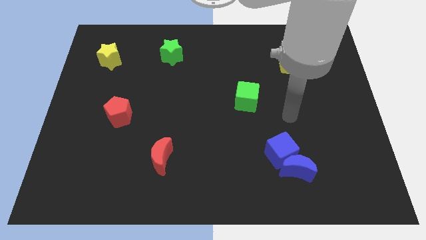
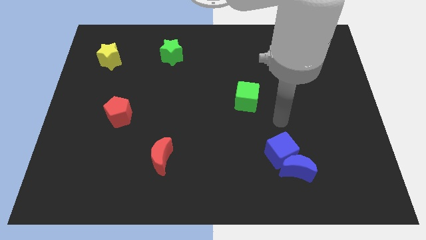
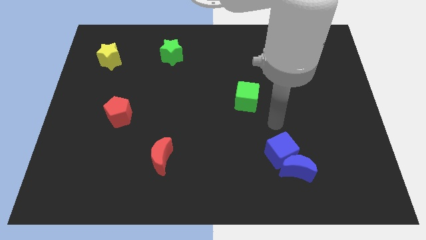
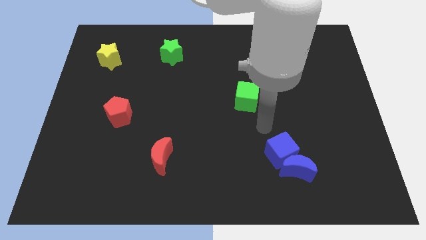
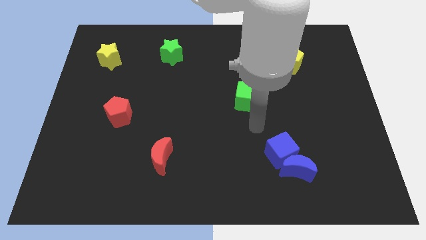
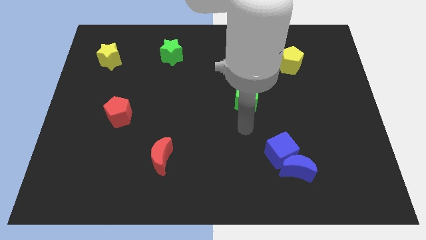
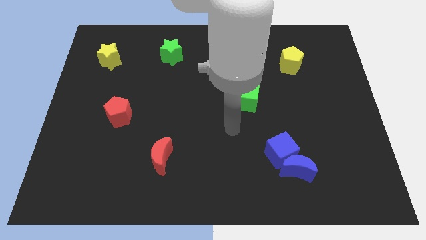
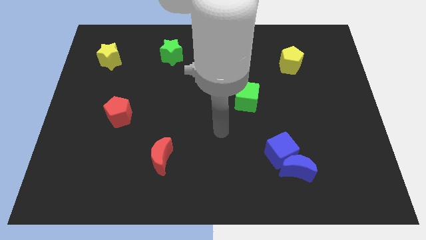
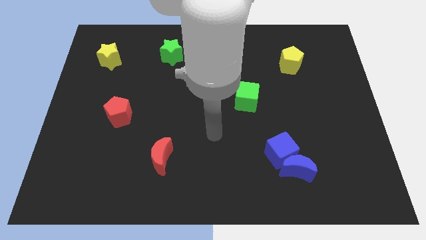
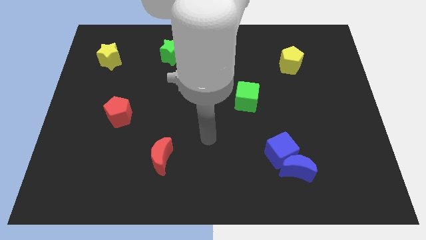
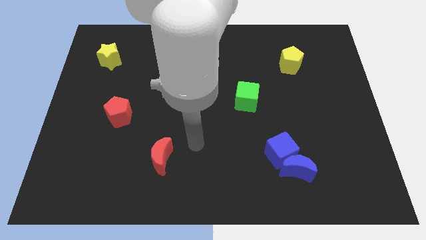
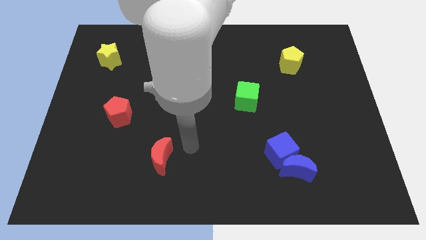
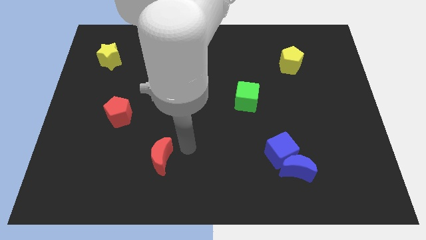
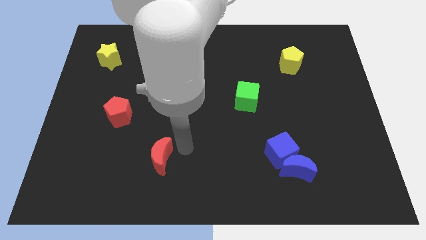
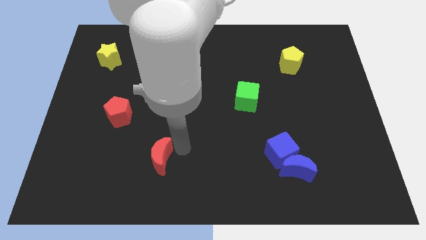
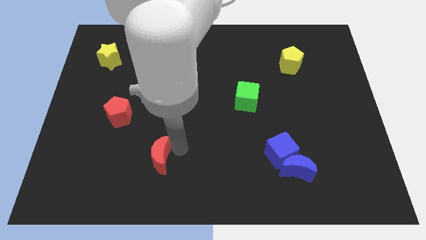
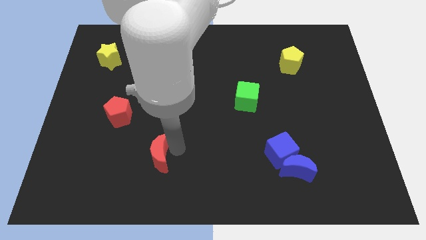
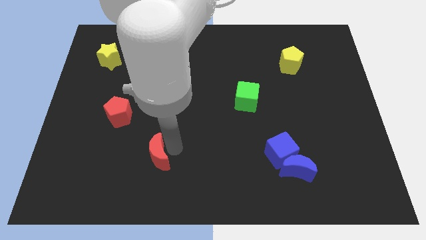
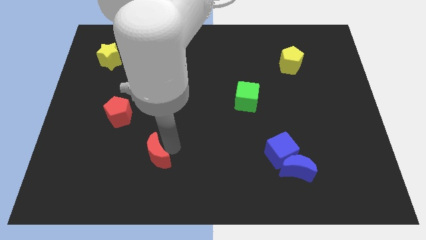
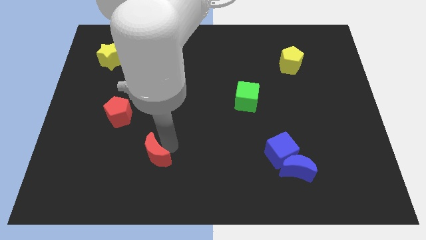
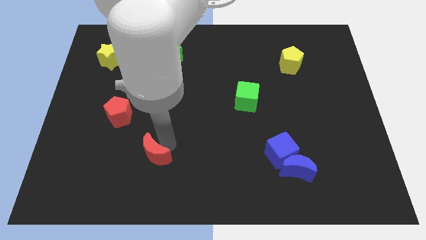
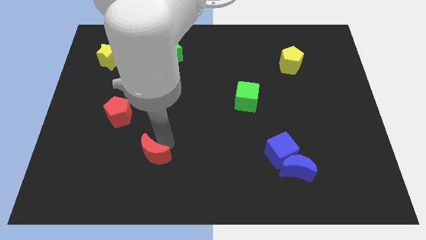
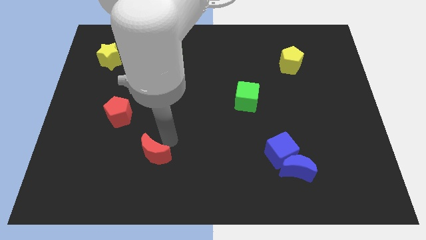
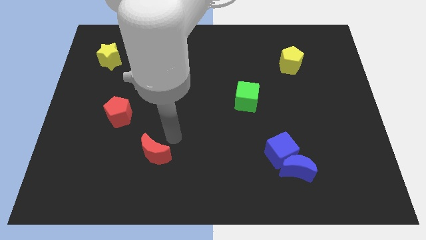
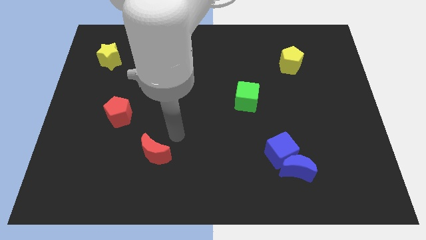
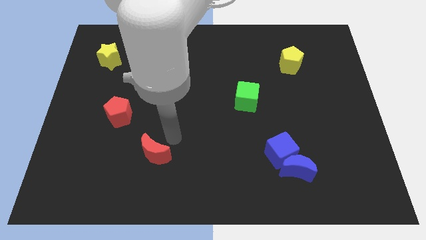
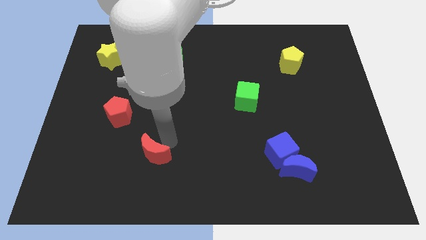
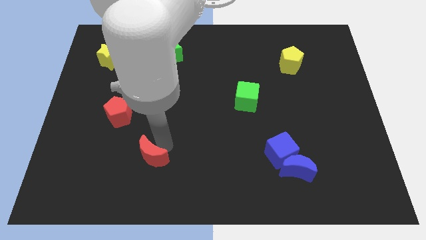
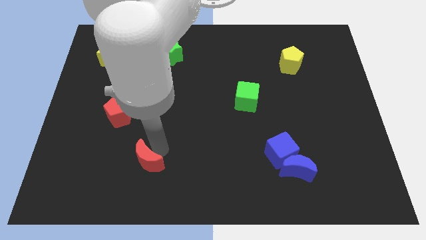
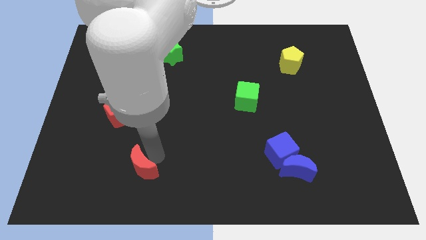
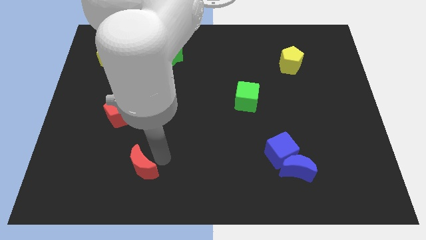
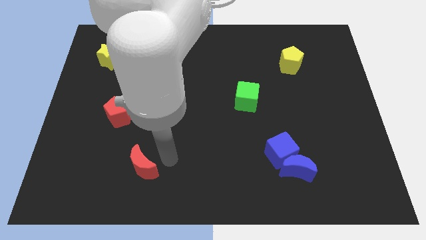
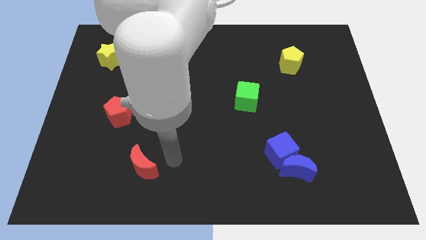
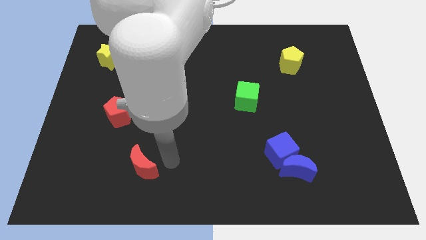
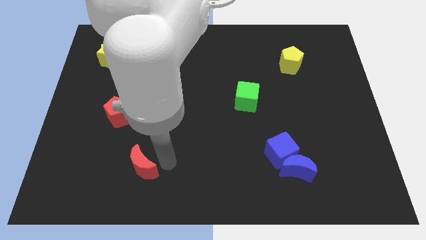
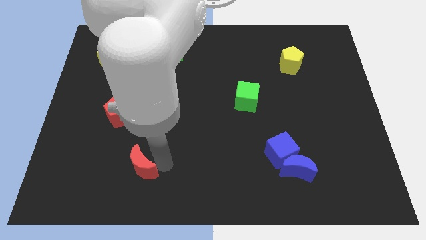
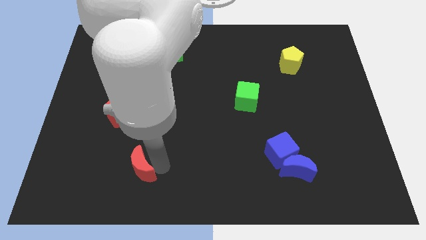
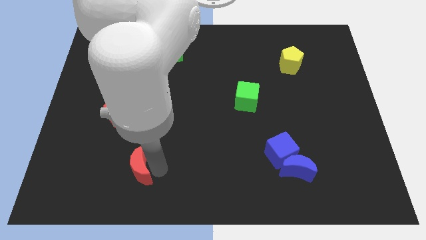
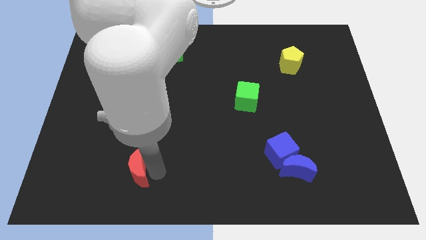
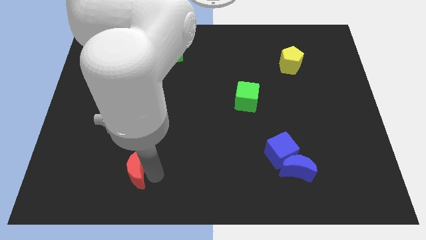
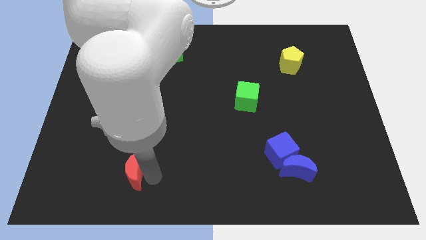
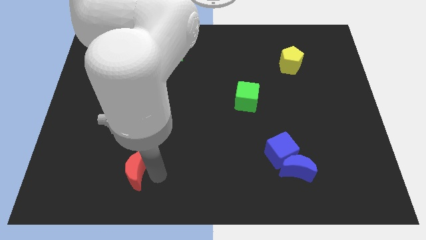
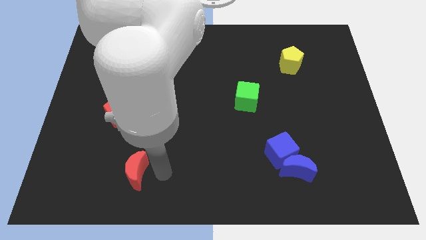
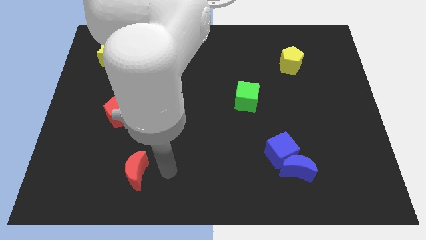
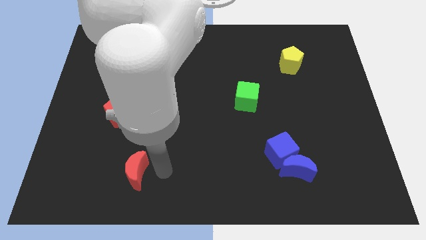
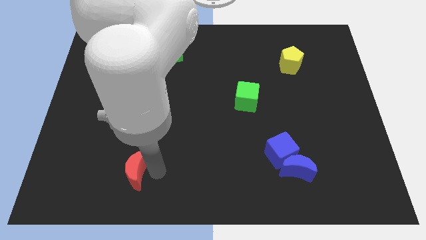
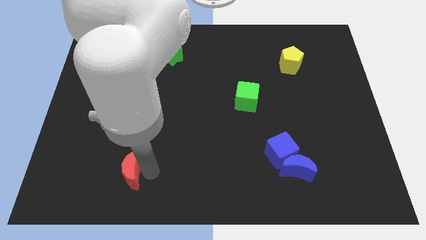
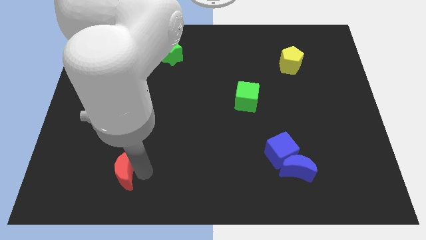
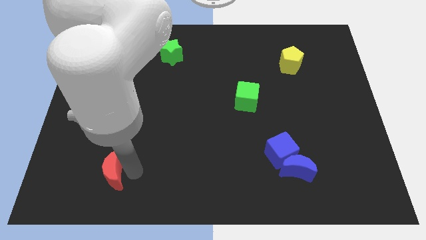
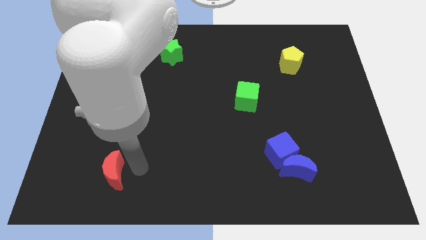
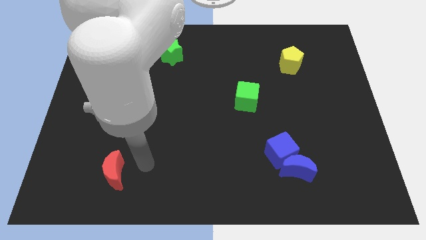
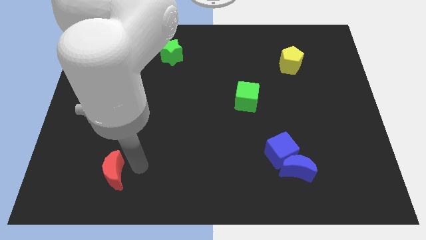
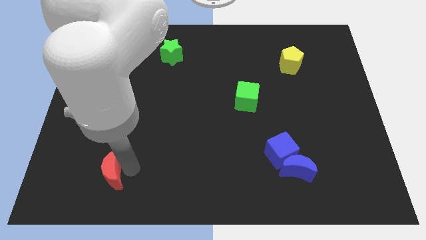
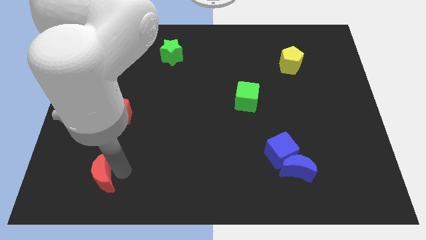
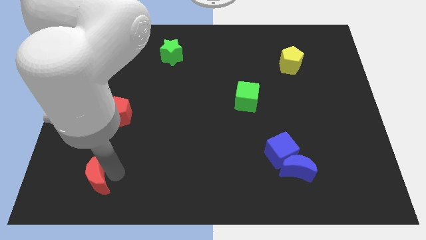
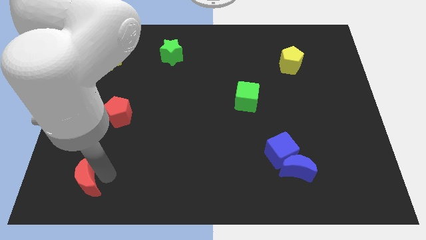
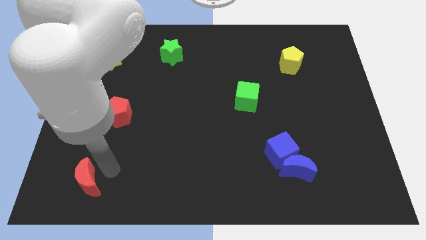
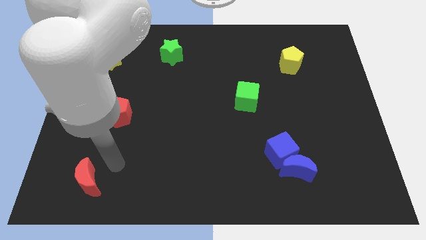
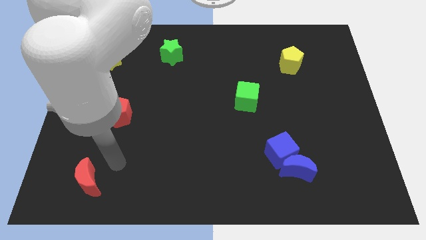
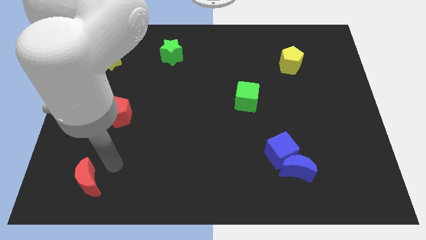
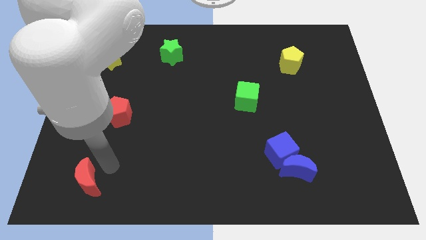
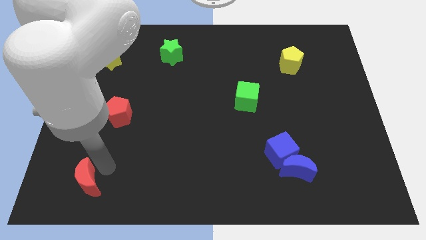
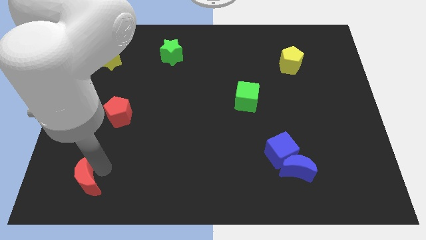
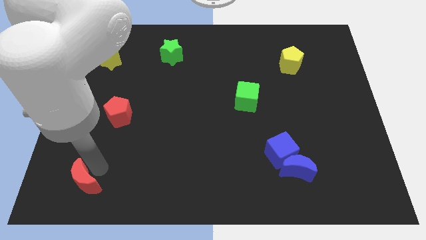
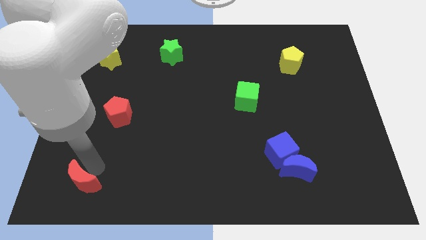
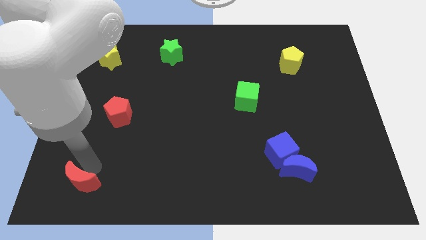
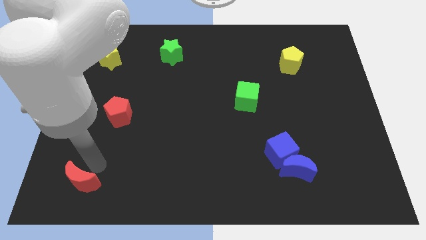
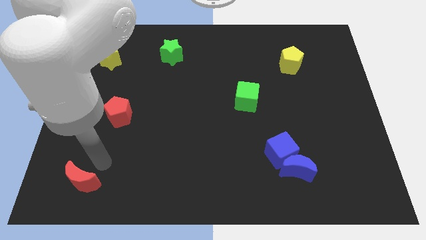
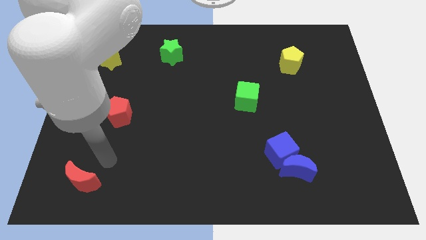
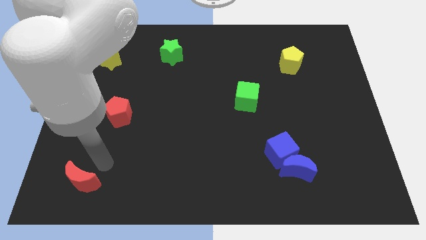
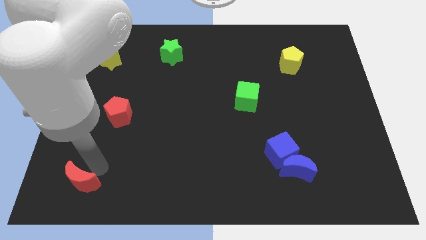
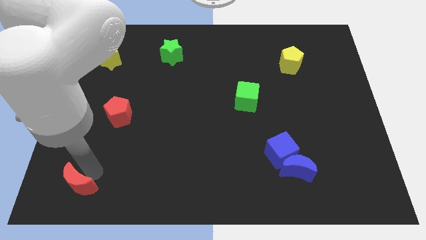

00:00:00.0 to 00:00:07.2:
push the red moon to the bottom left of the board

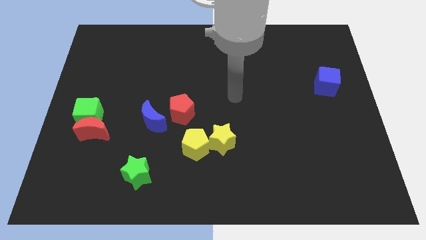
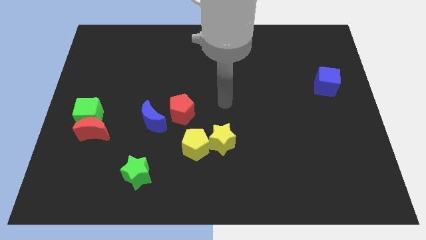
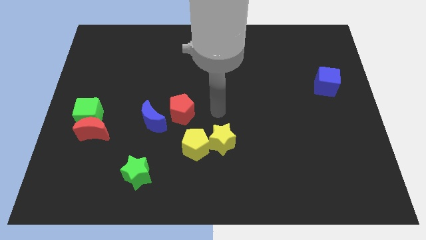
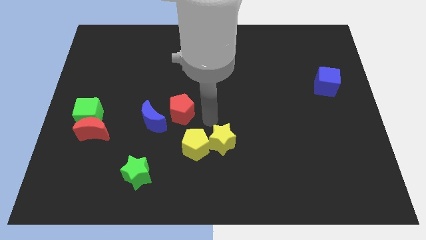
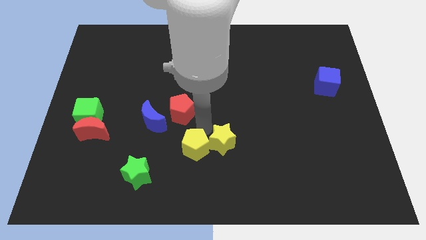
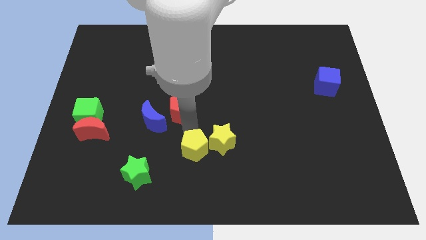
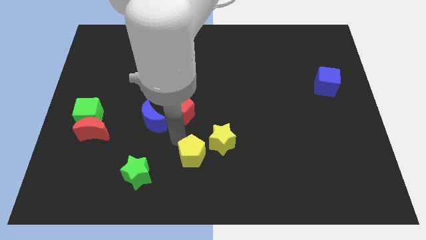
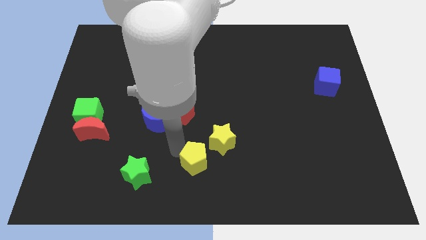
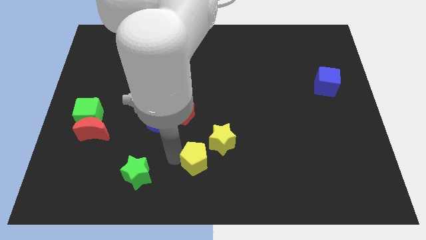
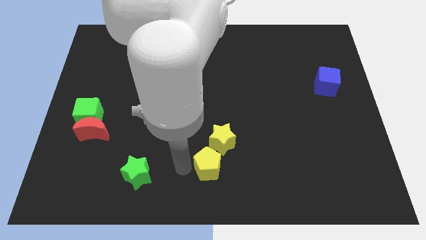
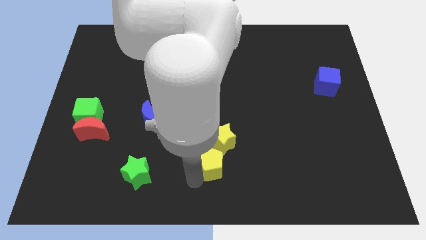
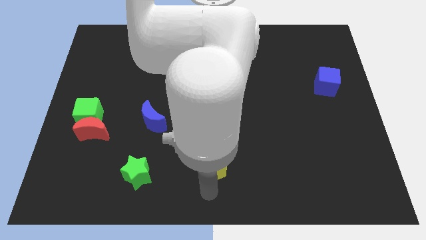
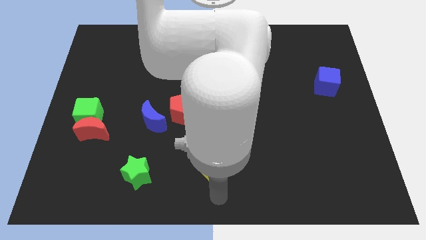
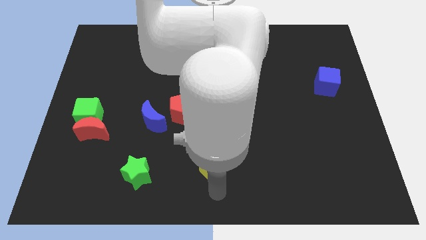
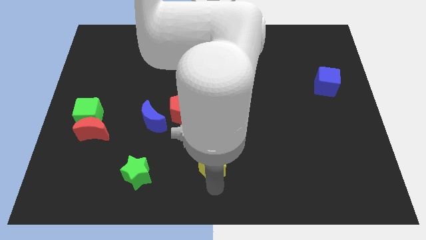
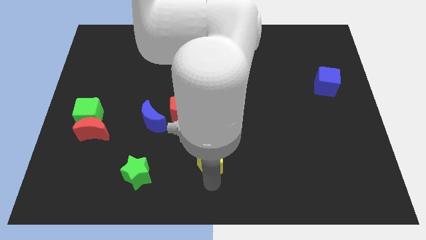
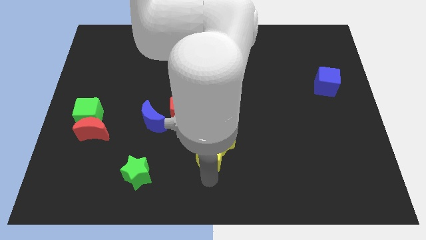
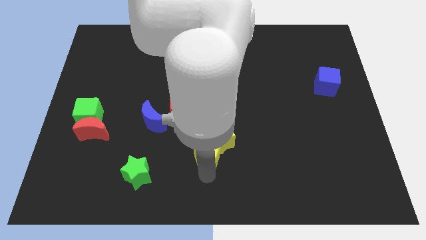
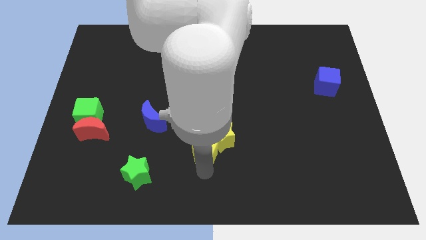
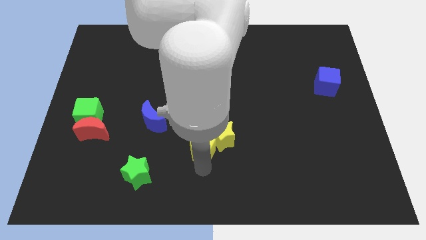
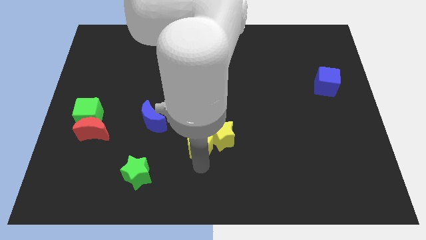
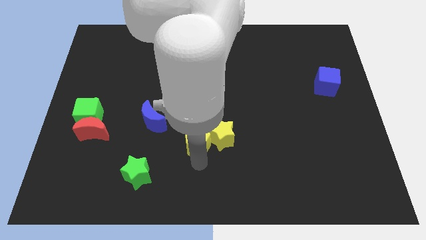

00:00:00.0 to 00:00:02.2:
put the yellow pentagon to the middle
